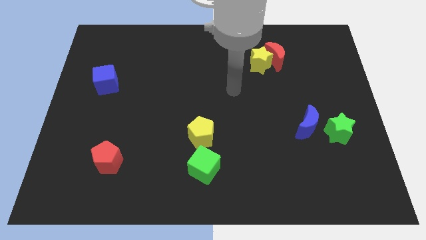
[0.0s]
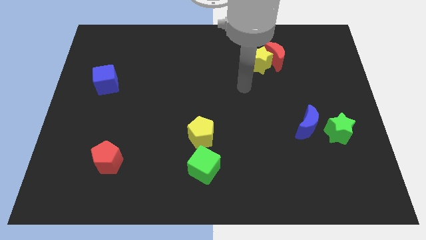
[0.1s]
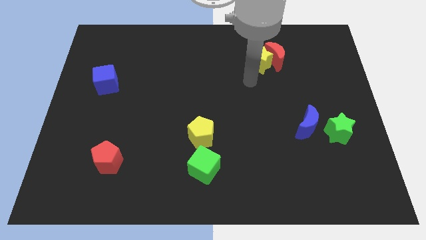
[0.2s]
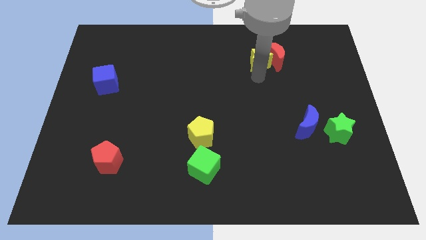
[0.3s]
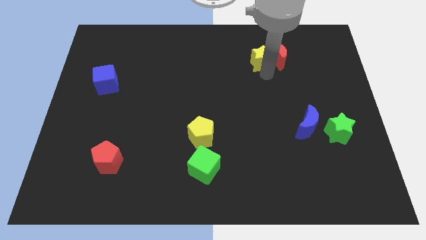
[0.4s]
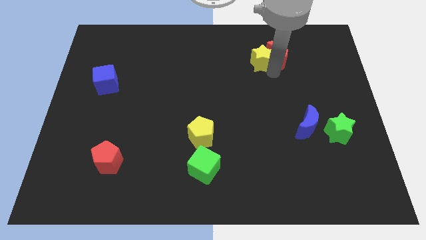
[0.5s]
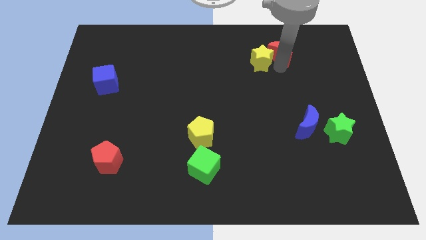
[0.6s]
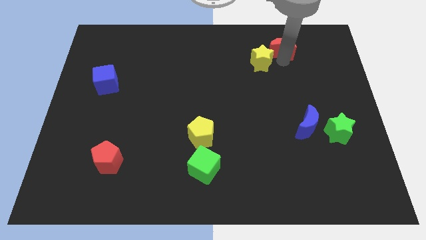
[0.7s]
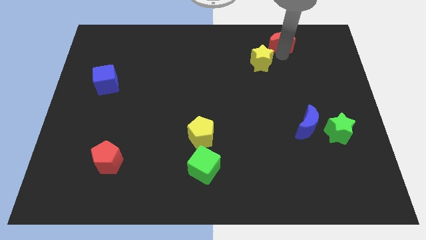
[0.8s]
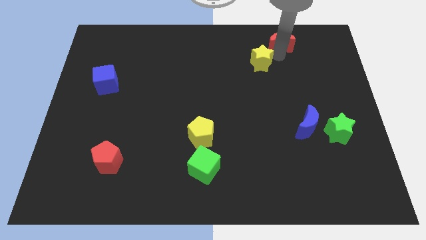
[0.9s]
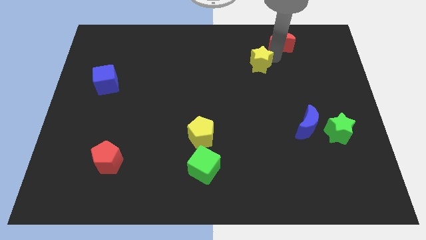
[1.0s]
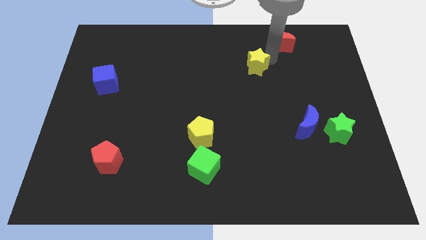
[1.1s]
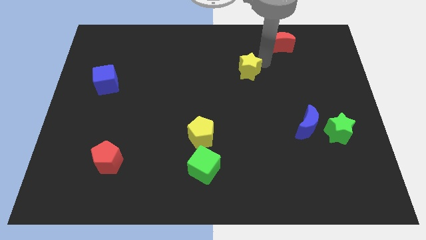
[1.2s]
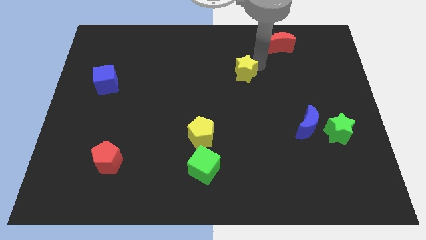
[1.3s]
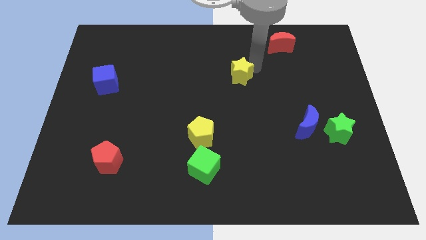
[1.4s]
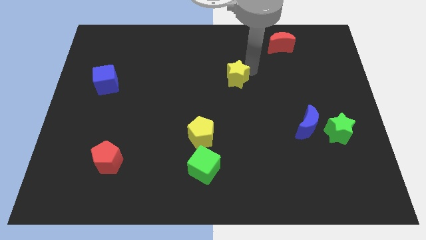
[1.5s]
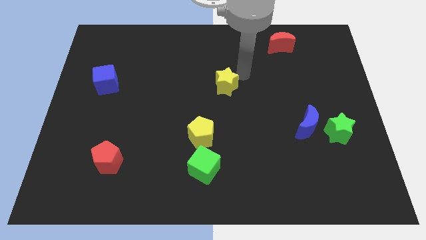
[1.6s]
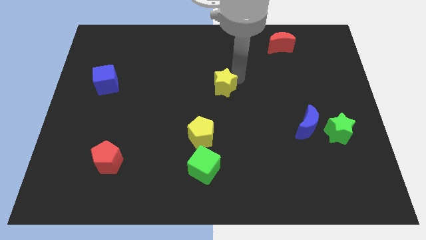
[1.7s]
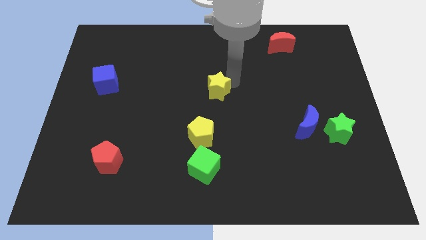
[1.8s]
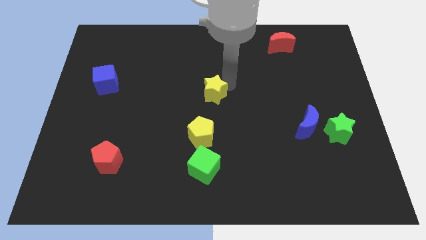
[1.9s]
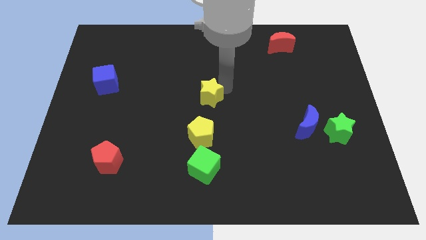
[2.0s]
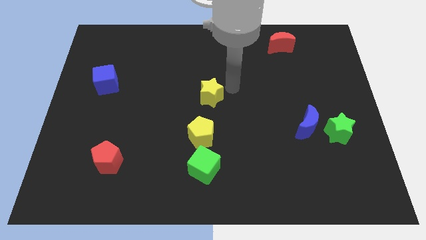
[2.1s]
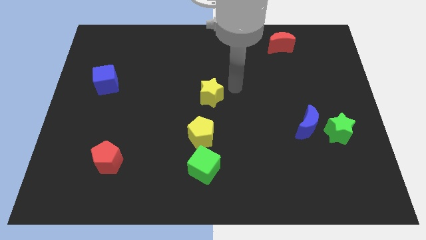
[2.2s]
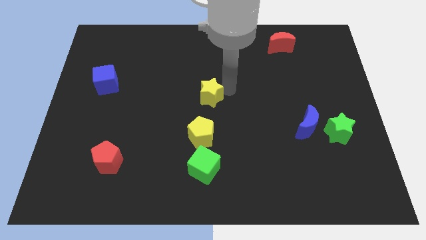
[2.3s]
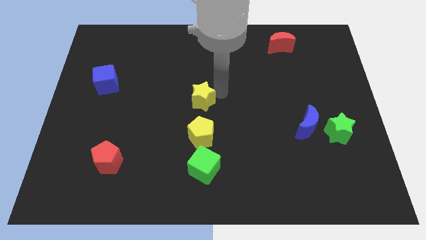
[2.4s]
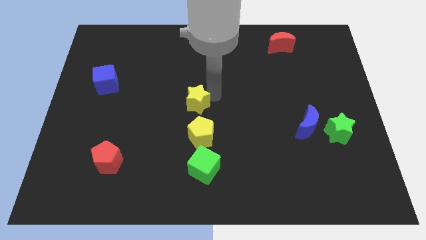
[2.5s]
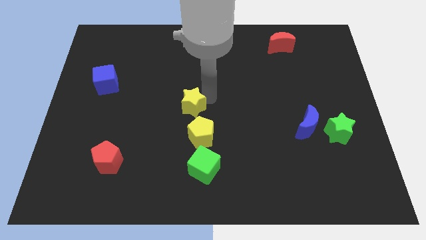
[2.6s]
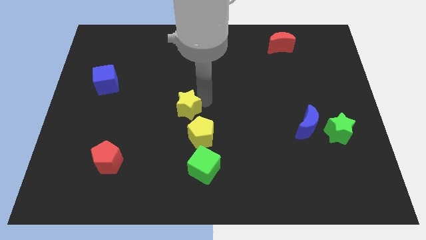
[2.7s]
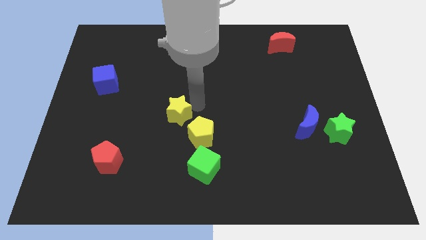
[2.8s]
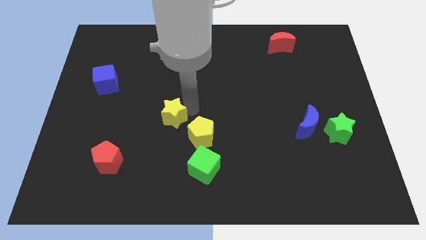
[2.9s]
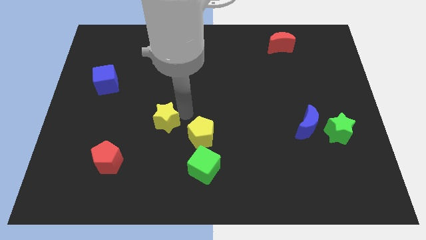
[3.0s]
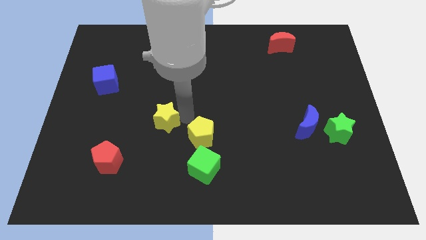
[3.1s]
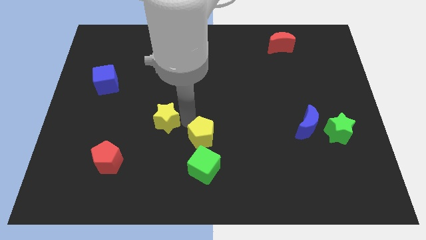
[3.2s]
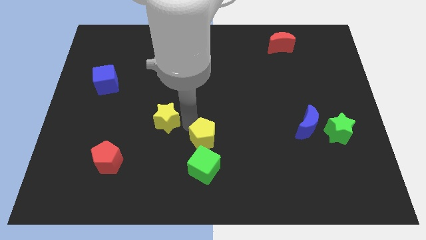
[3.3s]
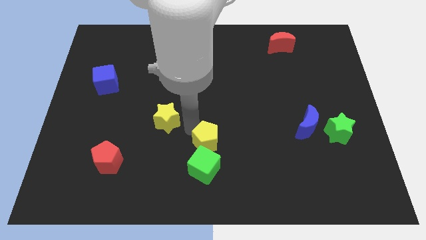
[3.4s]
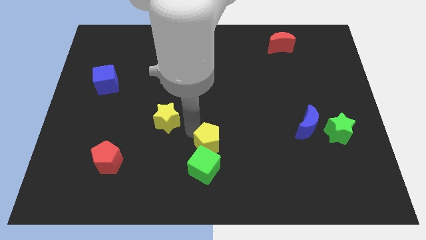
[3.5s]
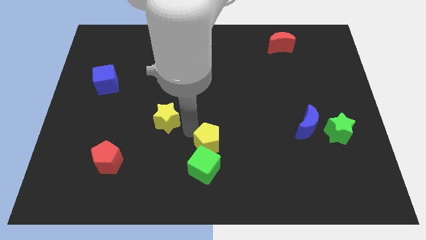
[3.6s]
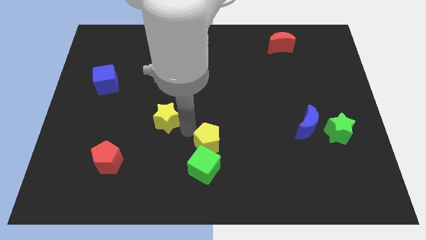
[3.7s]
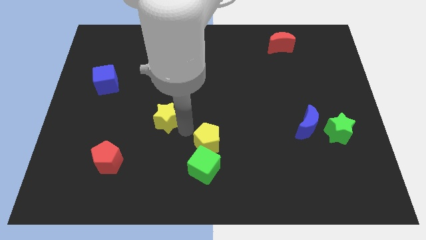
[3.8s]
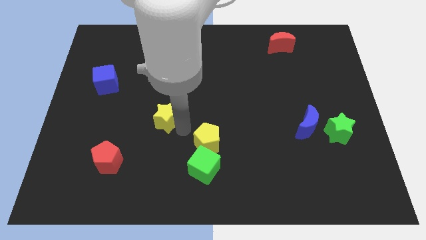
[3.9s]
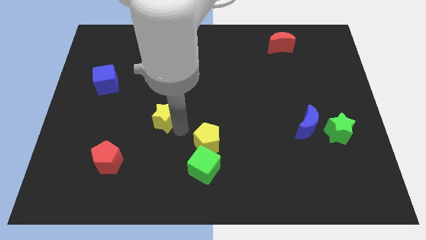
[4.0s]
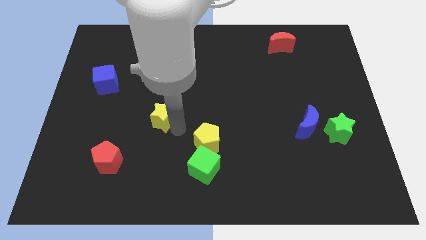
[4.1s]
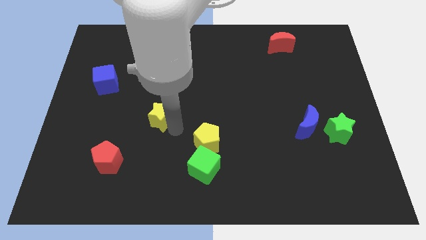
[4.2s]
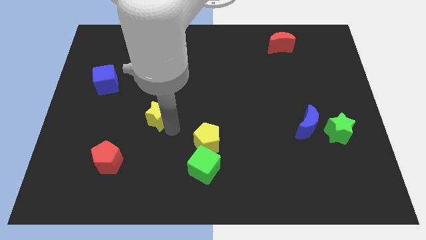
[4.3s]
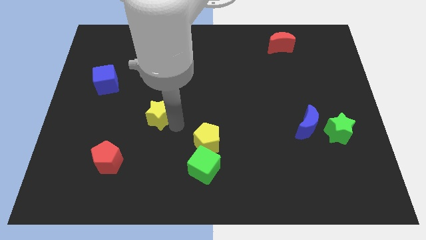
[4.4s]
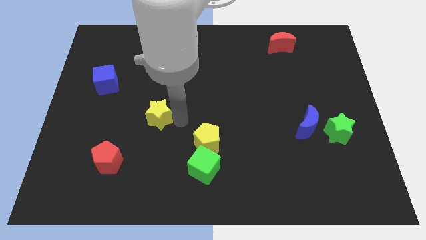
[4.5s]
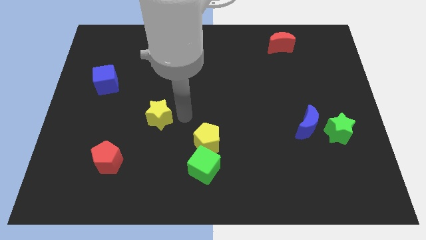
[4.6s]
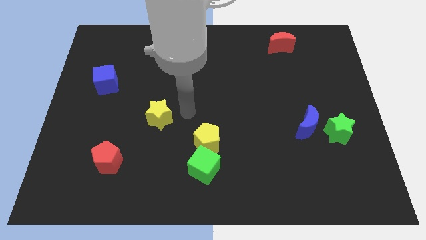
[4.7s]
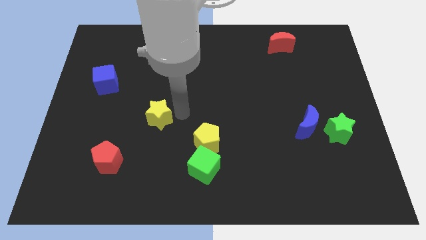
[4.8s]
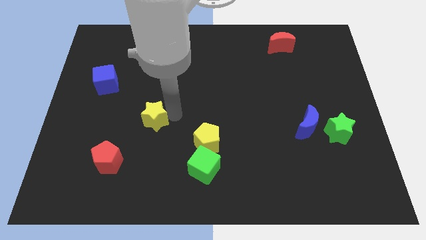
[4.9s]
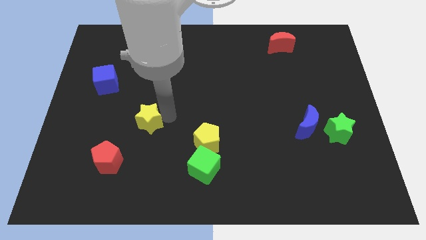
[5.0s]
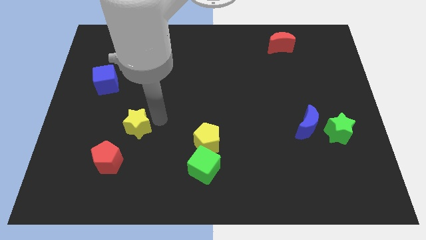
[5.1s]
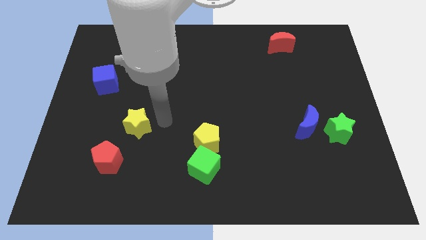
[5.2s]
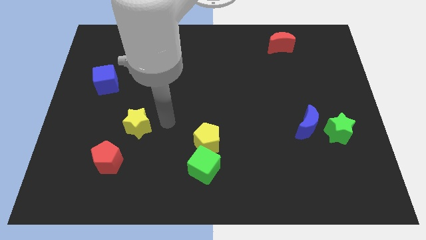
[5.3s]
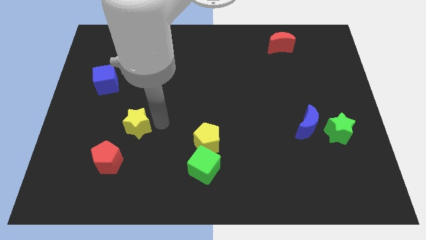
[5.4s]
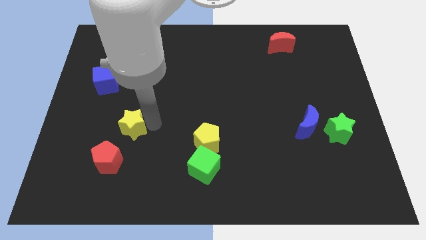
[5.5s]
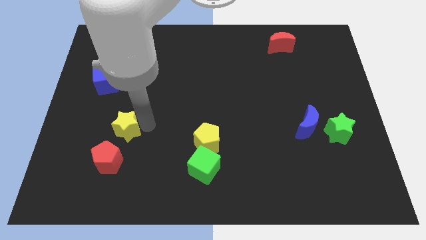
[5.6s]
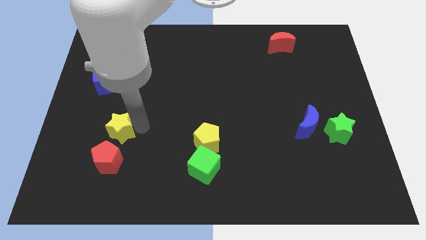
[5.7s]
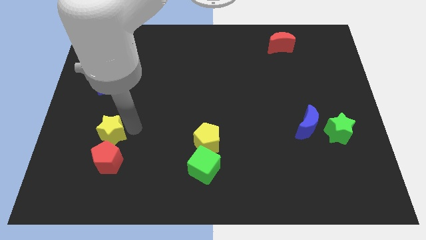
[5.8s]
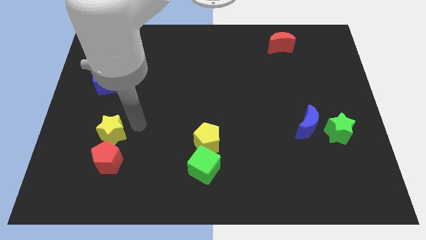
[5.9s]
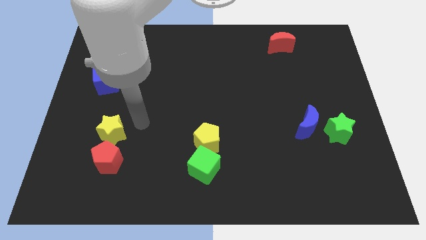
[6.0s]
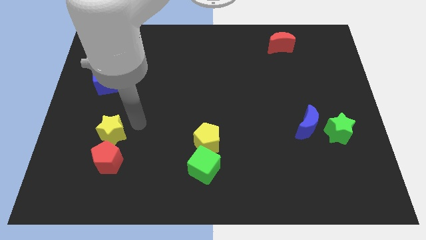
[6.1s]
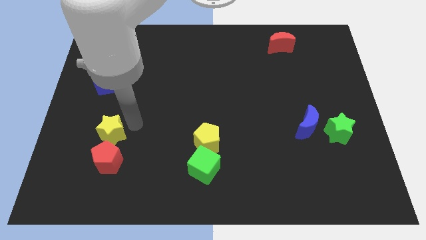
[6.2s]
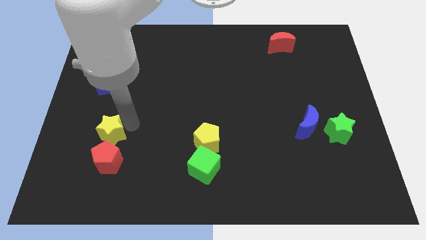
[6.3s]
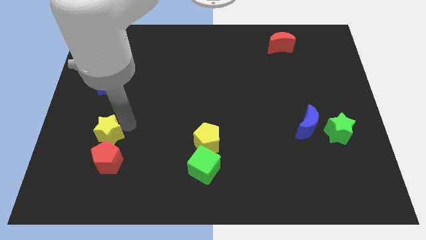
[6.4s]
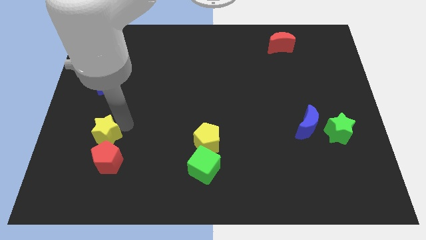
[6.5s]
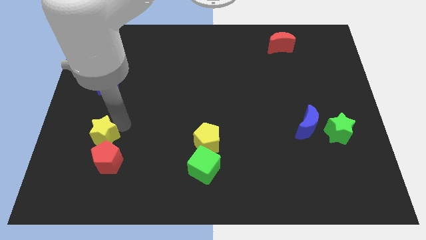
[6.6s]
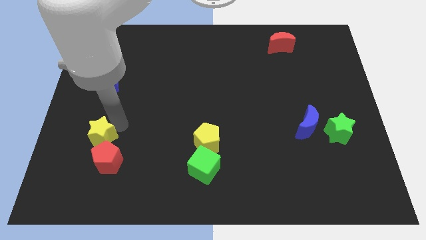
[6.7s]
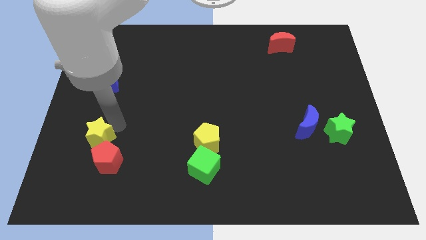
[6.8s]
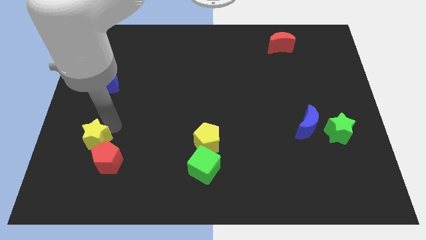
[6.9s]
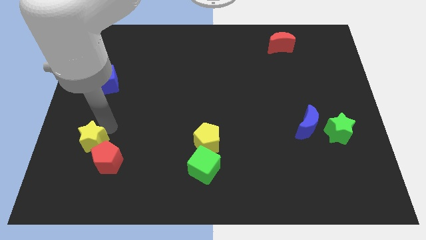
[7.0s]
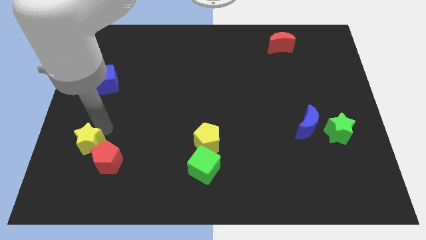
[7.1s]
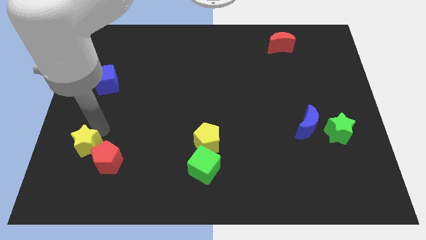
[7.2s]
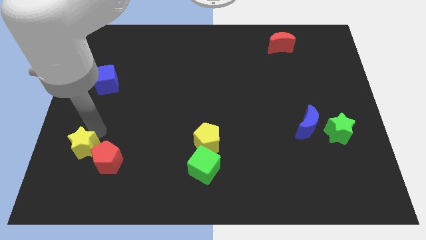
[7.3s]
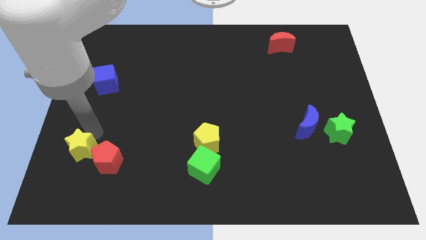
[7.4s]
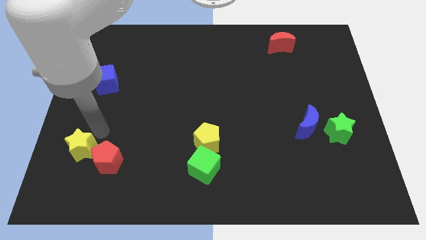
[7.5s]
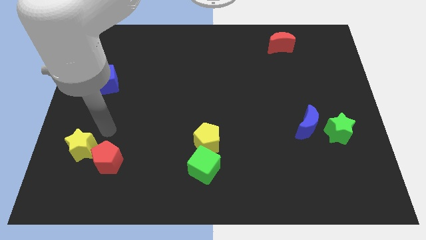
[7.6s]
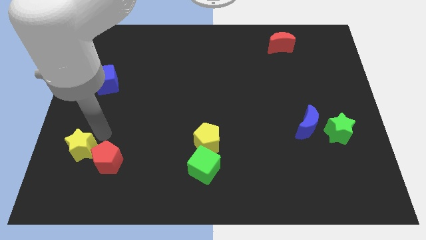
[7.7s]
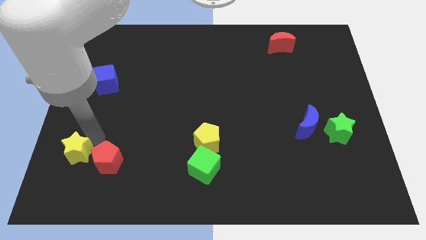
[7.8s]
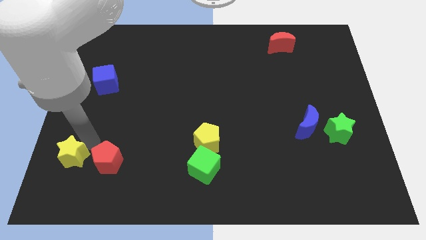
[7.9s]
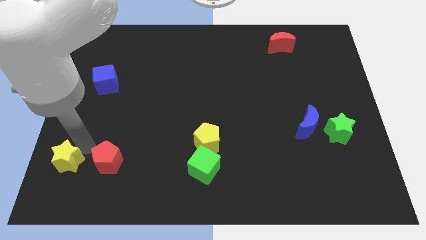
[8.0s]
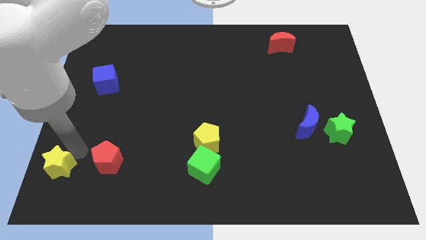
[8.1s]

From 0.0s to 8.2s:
move the yellow star to the bottom left
